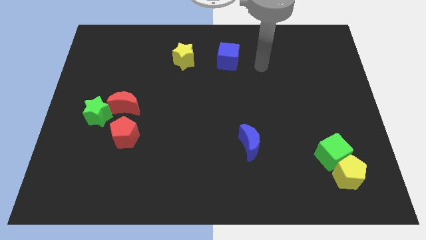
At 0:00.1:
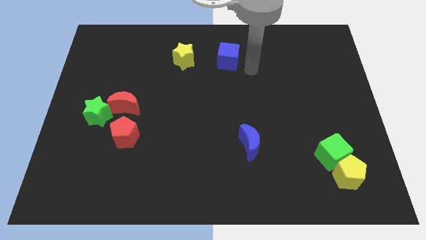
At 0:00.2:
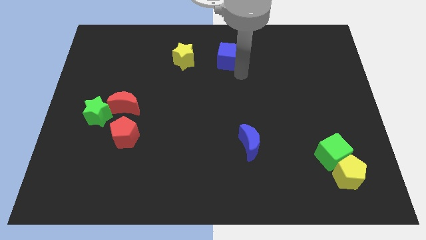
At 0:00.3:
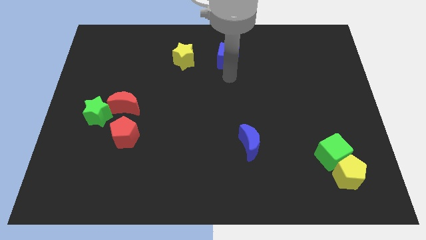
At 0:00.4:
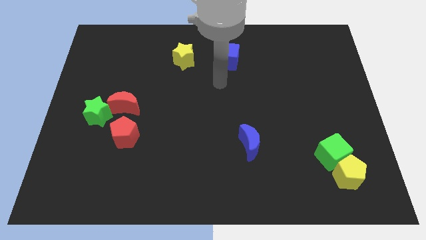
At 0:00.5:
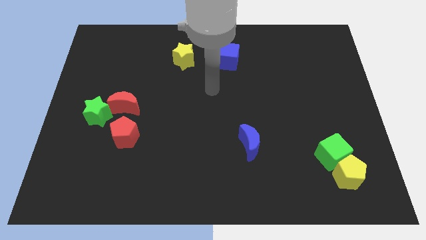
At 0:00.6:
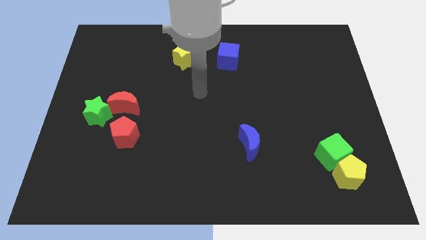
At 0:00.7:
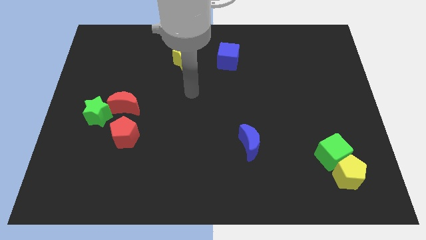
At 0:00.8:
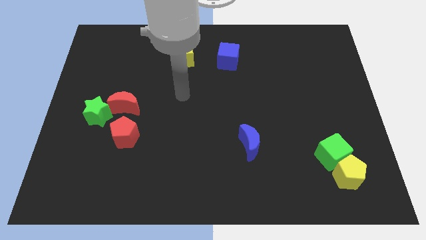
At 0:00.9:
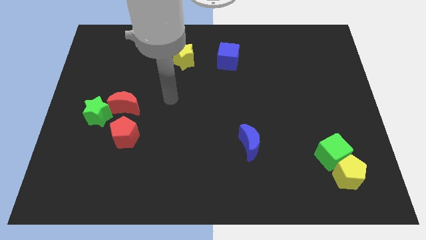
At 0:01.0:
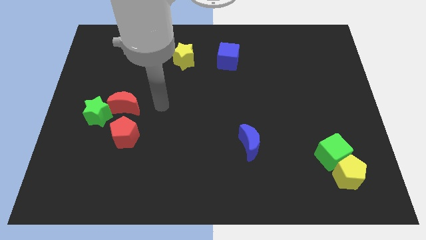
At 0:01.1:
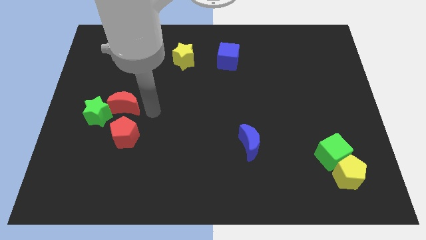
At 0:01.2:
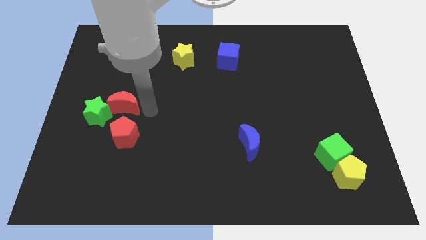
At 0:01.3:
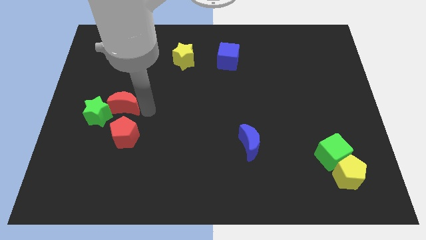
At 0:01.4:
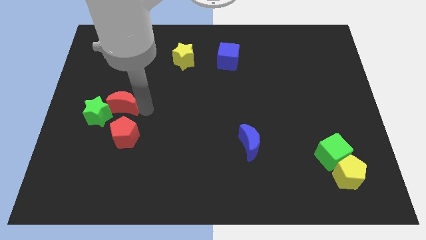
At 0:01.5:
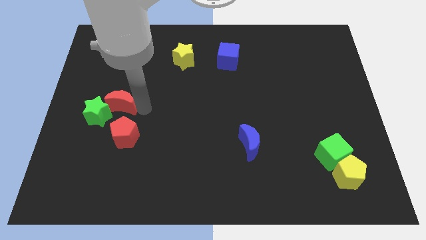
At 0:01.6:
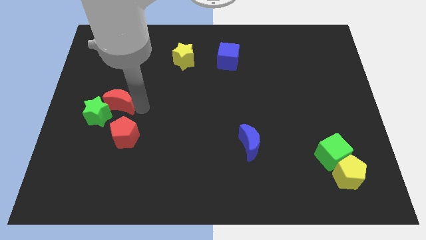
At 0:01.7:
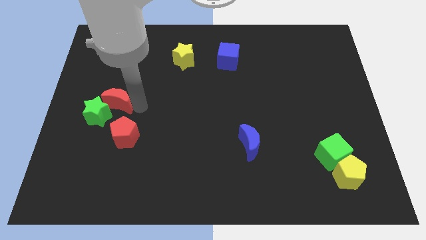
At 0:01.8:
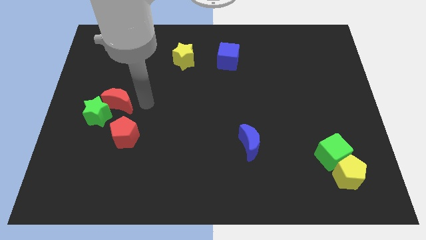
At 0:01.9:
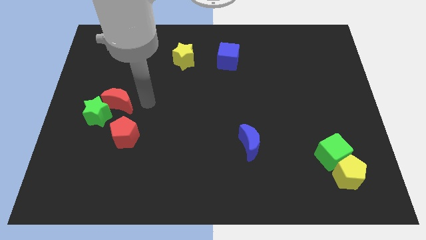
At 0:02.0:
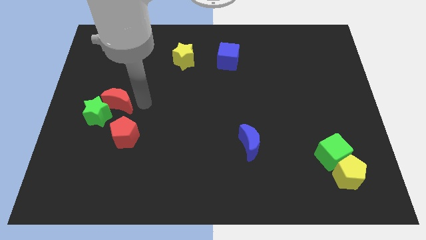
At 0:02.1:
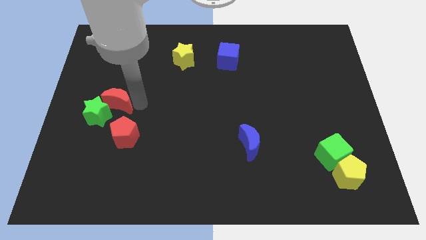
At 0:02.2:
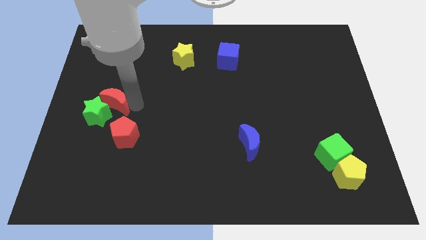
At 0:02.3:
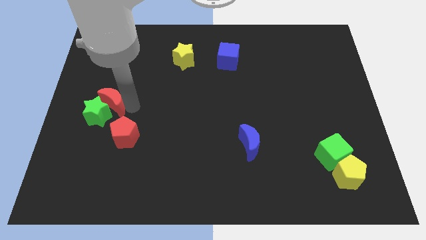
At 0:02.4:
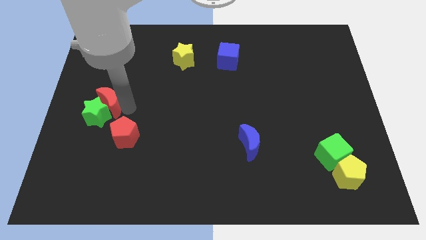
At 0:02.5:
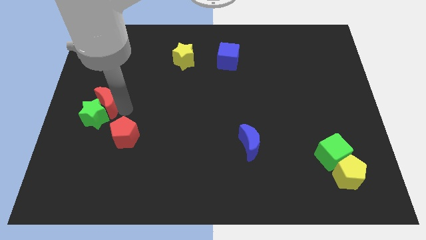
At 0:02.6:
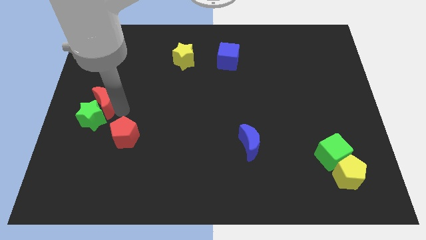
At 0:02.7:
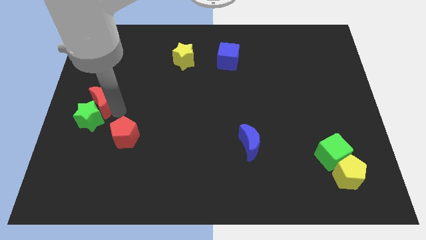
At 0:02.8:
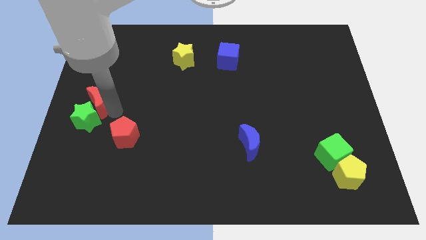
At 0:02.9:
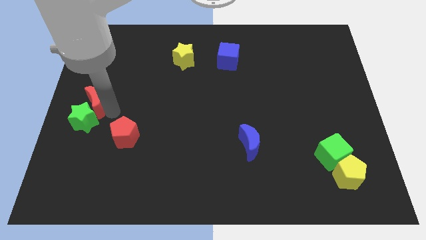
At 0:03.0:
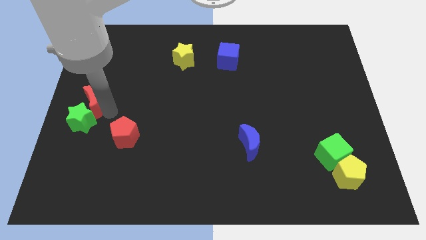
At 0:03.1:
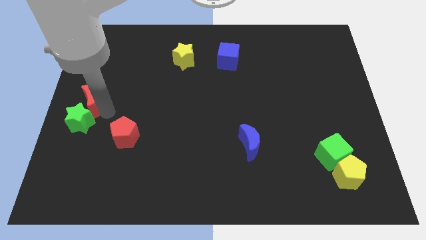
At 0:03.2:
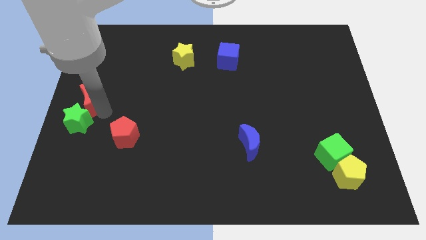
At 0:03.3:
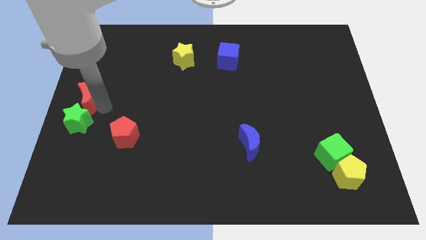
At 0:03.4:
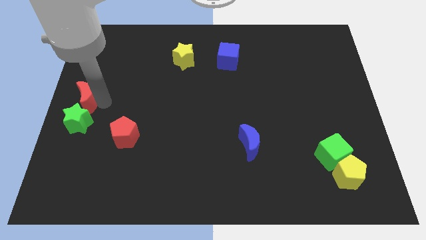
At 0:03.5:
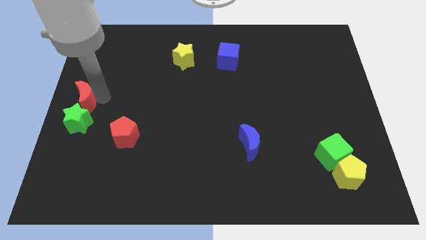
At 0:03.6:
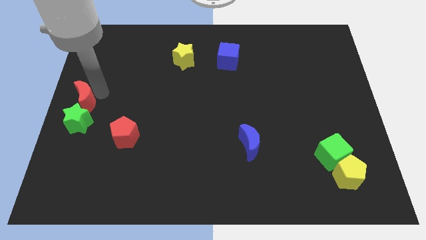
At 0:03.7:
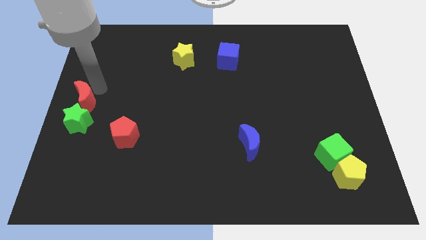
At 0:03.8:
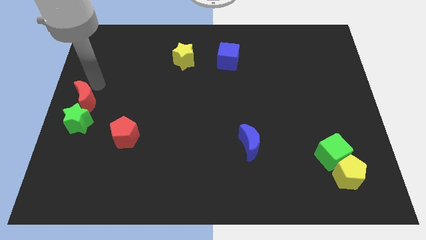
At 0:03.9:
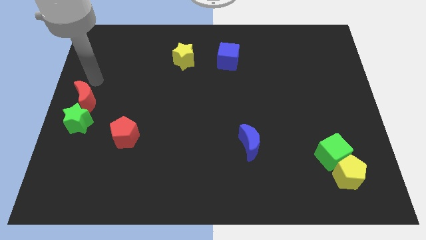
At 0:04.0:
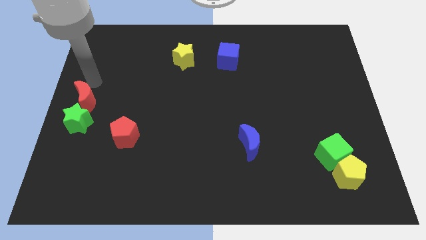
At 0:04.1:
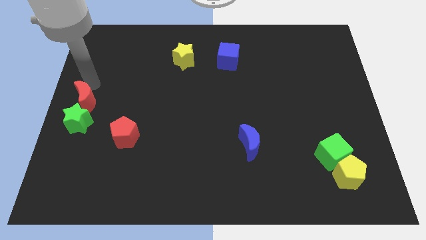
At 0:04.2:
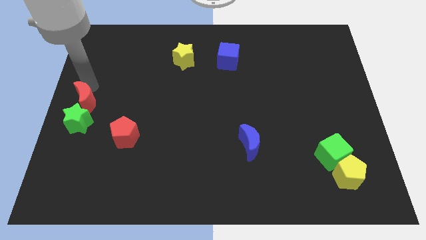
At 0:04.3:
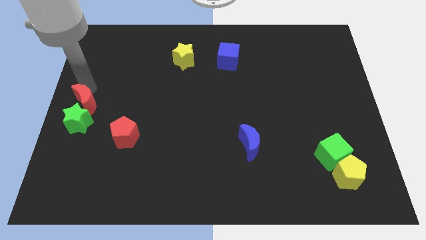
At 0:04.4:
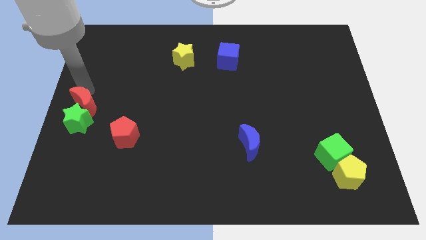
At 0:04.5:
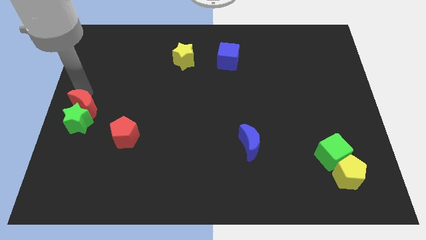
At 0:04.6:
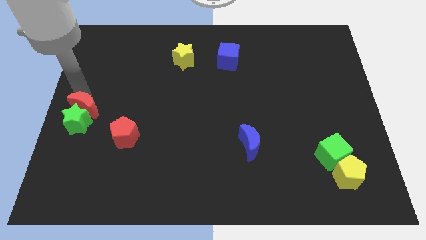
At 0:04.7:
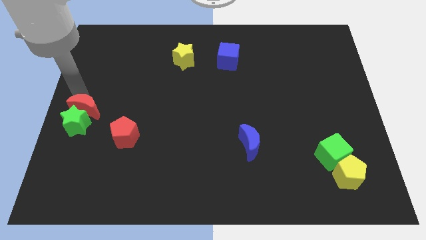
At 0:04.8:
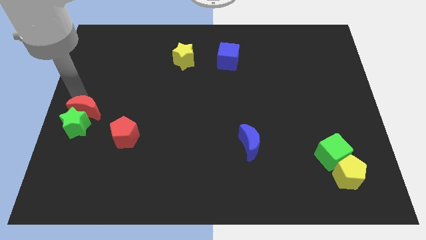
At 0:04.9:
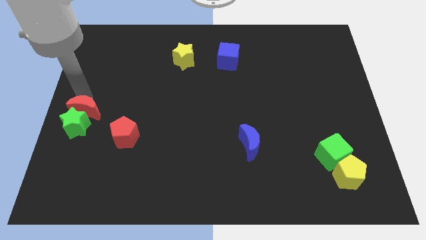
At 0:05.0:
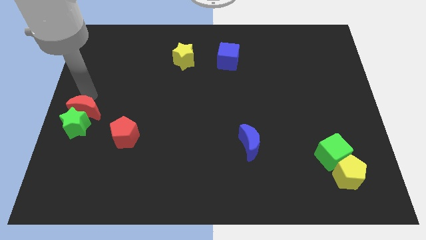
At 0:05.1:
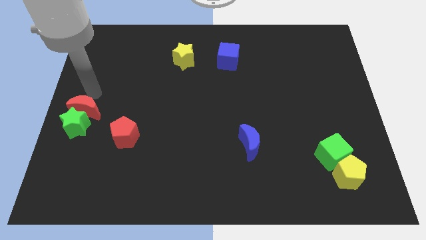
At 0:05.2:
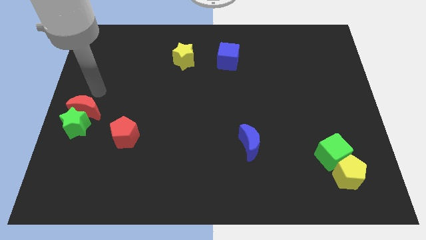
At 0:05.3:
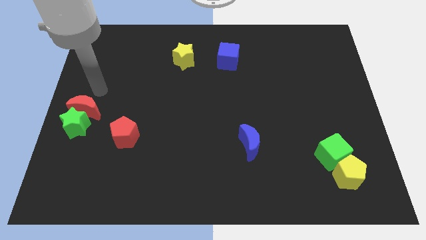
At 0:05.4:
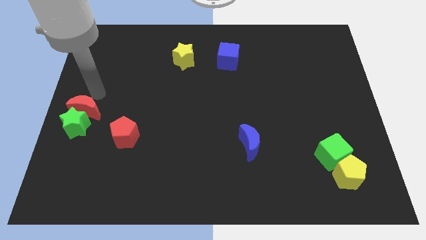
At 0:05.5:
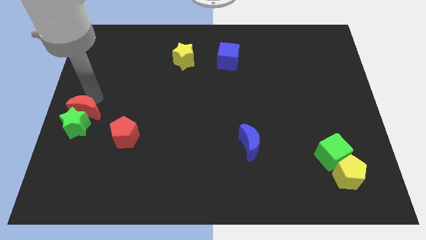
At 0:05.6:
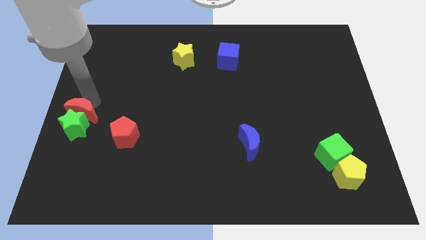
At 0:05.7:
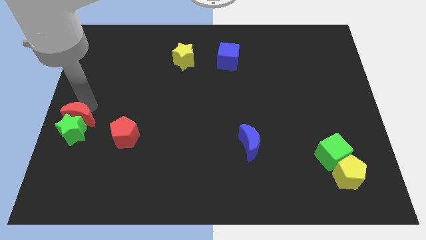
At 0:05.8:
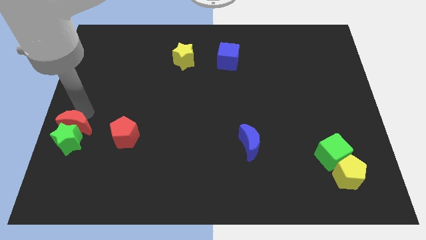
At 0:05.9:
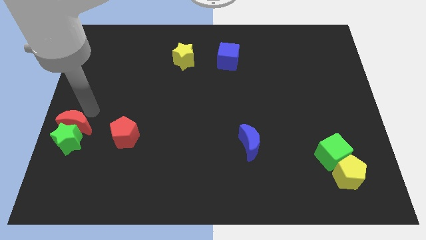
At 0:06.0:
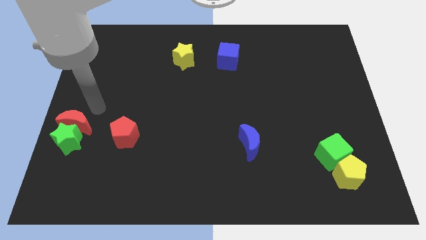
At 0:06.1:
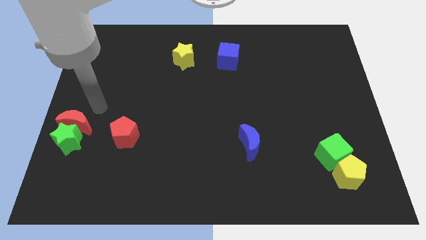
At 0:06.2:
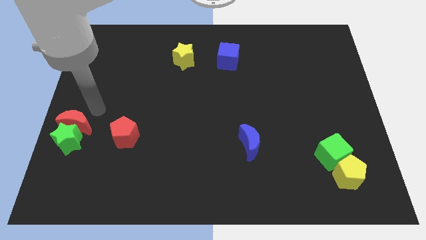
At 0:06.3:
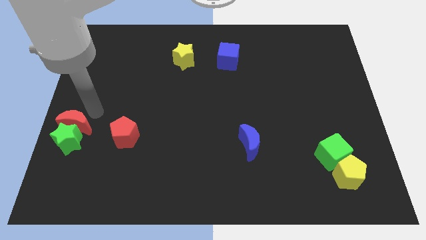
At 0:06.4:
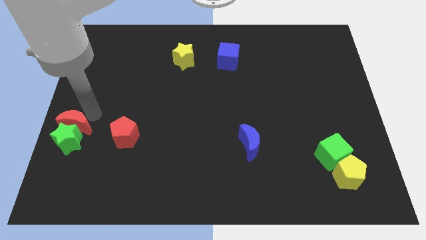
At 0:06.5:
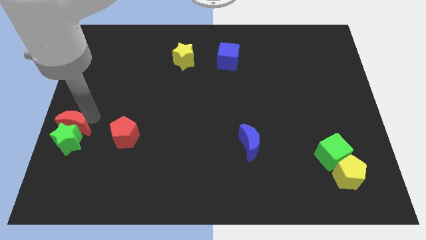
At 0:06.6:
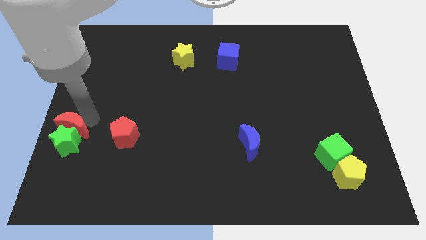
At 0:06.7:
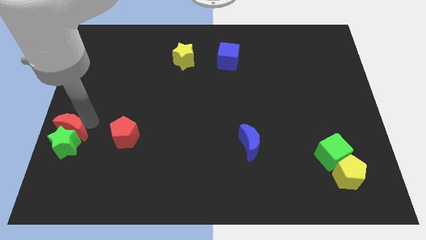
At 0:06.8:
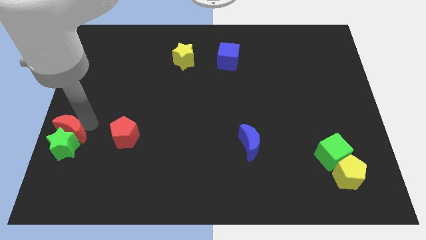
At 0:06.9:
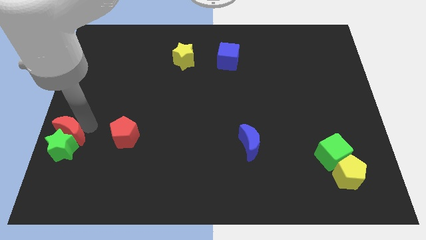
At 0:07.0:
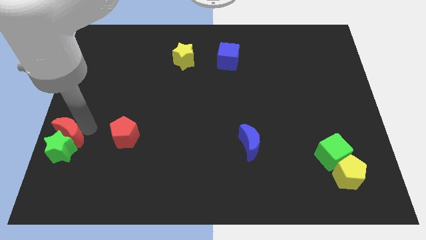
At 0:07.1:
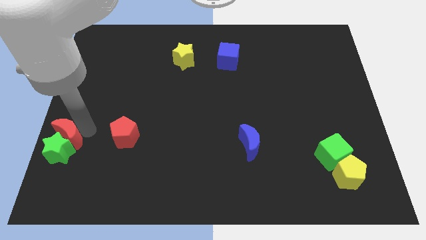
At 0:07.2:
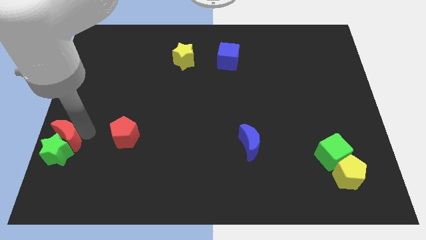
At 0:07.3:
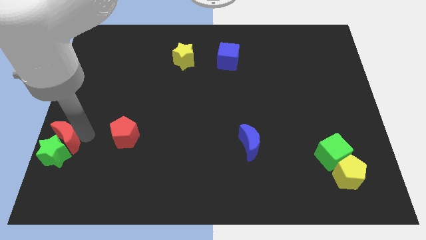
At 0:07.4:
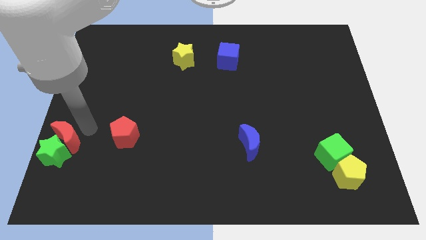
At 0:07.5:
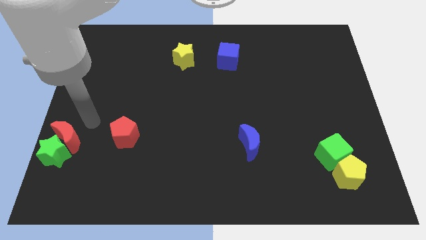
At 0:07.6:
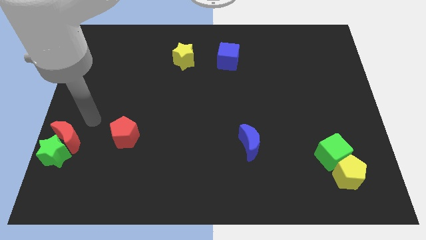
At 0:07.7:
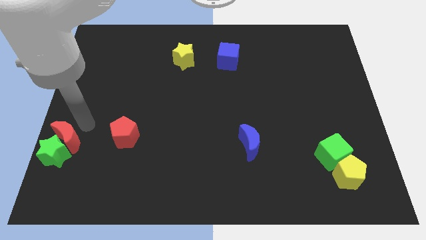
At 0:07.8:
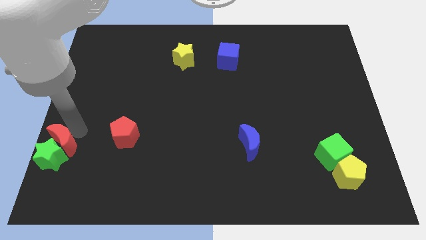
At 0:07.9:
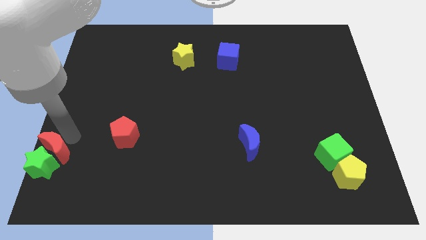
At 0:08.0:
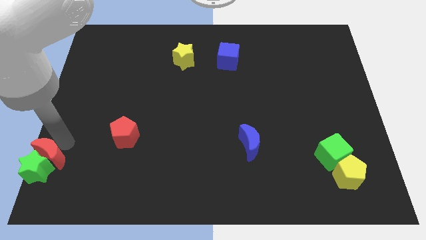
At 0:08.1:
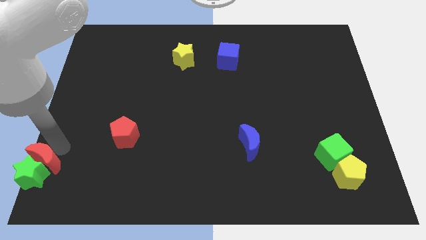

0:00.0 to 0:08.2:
put the red moon to the lower left corner
